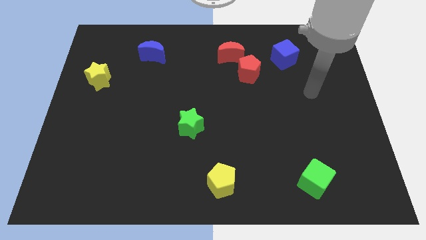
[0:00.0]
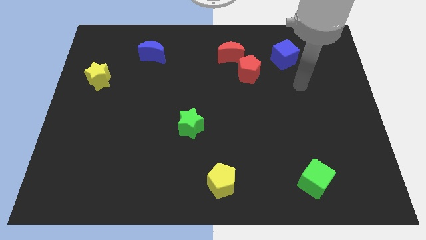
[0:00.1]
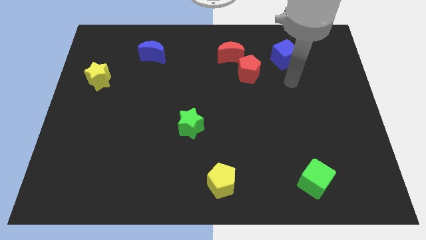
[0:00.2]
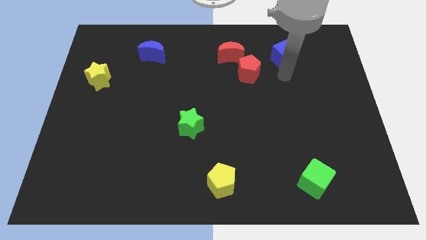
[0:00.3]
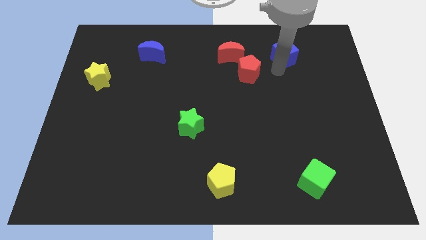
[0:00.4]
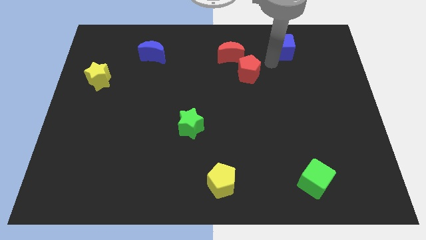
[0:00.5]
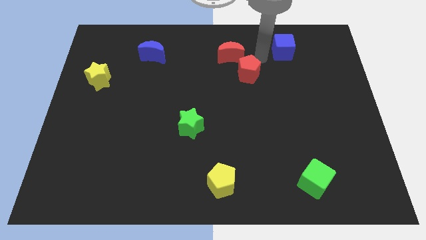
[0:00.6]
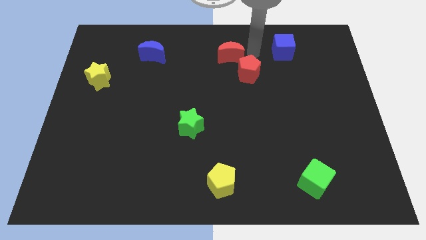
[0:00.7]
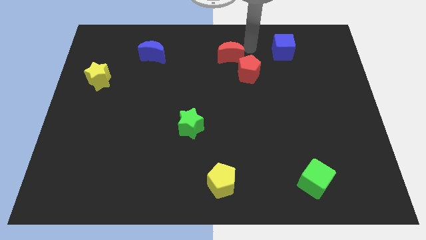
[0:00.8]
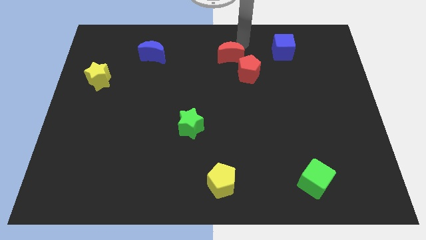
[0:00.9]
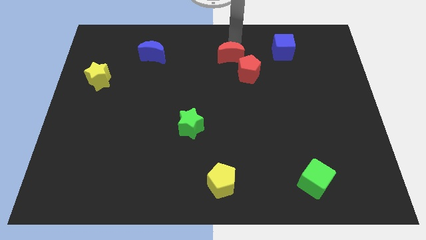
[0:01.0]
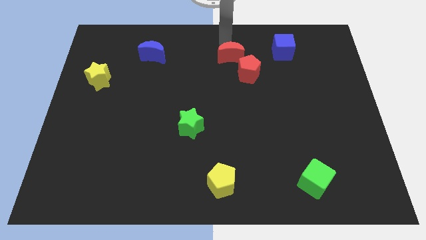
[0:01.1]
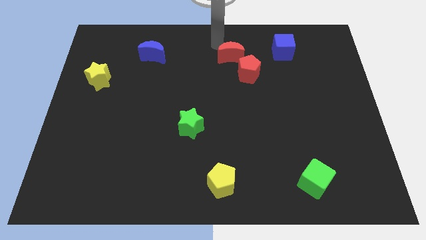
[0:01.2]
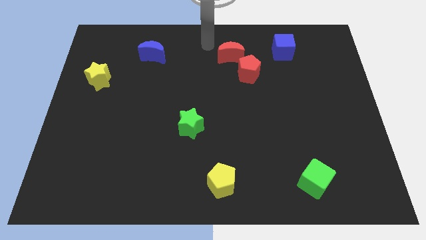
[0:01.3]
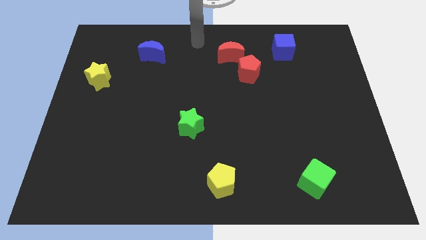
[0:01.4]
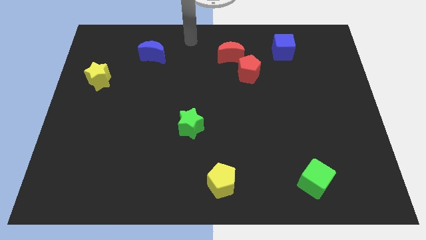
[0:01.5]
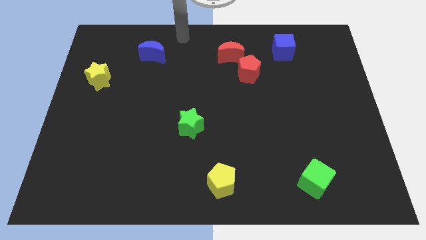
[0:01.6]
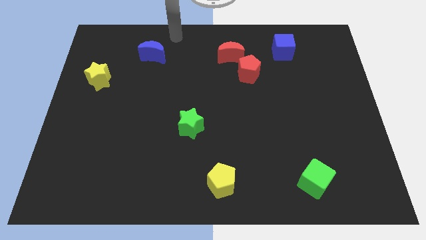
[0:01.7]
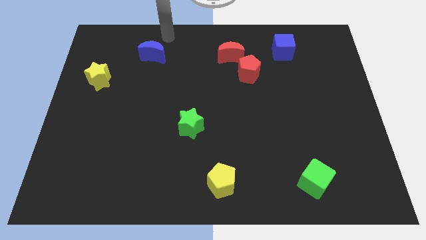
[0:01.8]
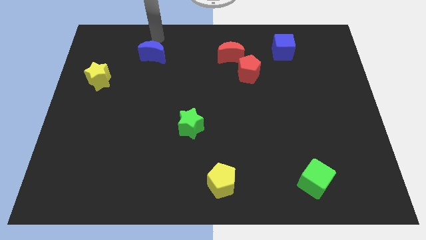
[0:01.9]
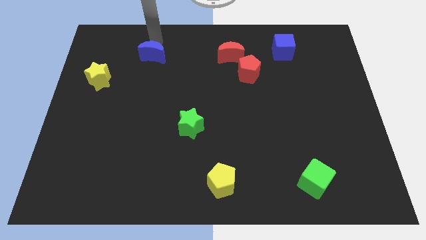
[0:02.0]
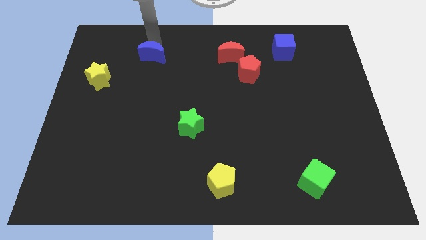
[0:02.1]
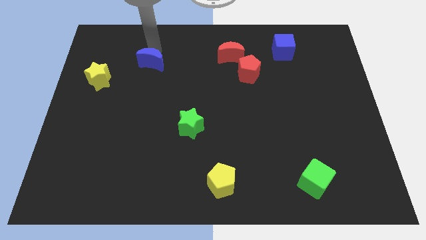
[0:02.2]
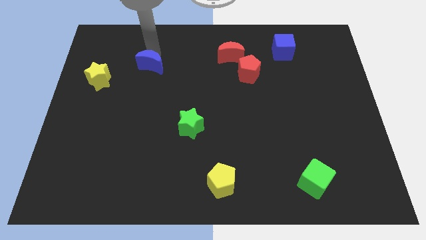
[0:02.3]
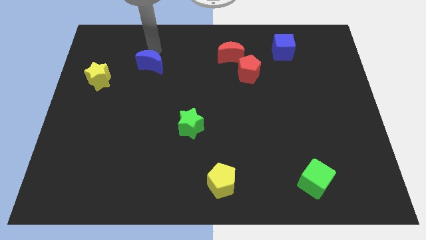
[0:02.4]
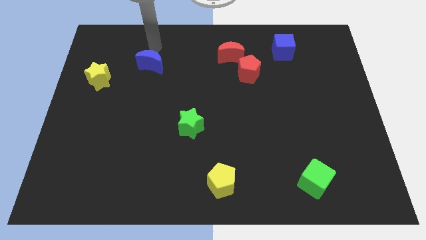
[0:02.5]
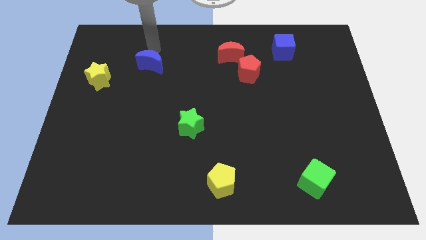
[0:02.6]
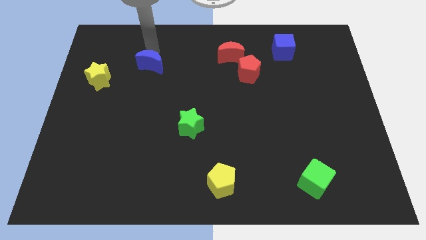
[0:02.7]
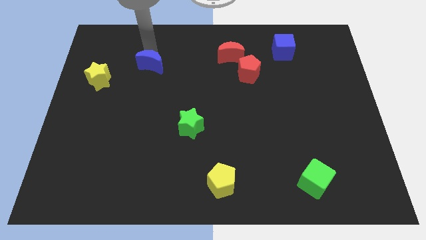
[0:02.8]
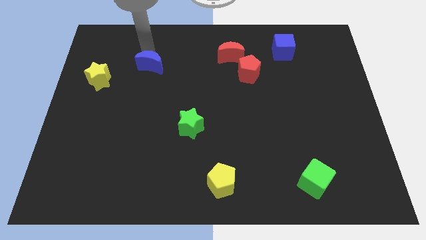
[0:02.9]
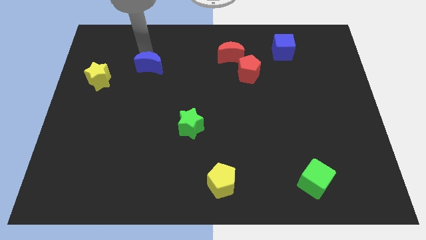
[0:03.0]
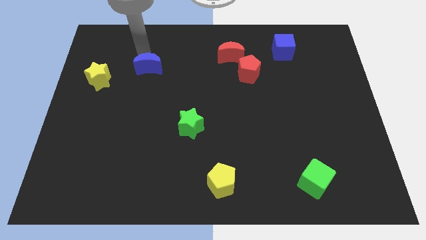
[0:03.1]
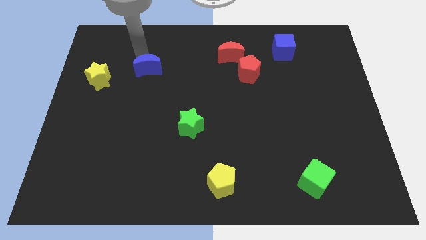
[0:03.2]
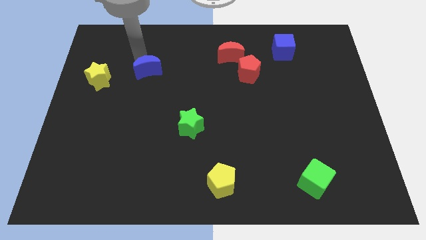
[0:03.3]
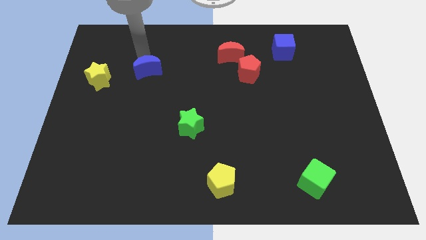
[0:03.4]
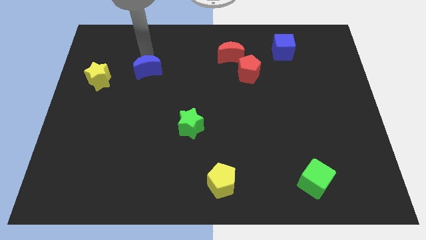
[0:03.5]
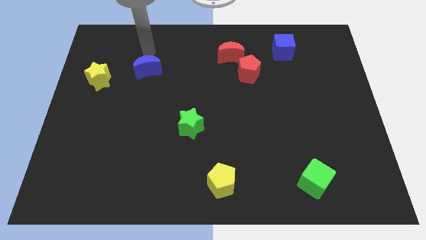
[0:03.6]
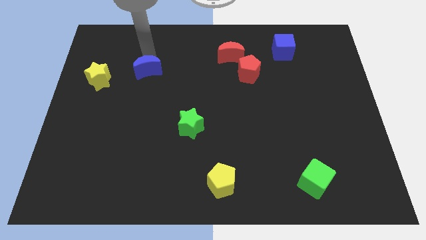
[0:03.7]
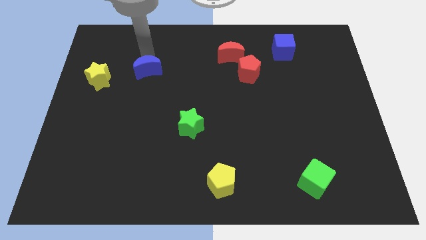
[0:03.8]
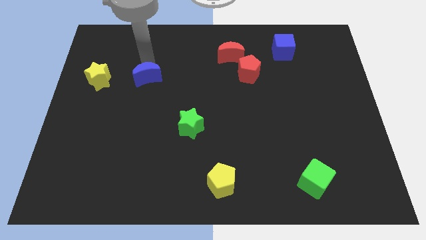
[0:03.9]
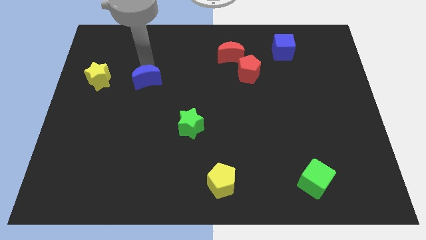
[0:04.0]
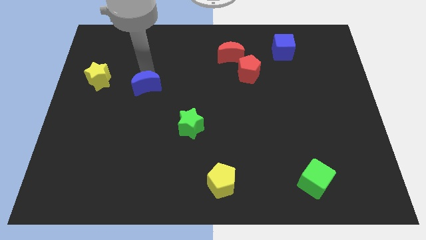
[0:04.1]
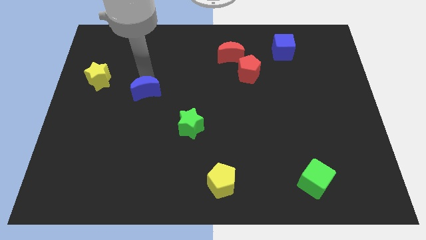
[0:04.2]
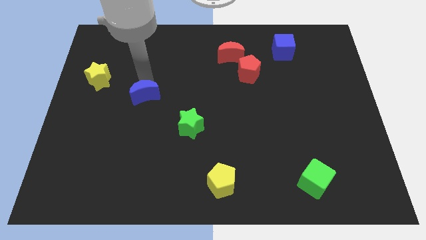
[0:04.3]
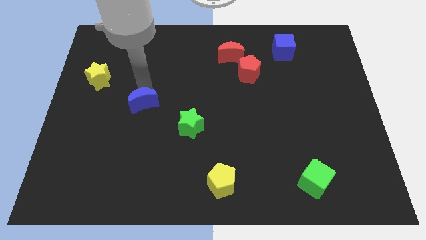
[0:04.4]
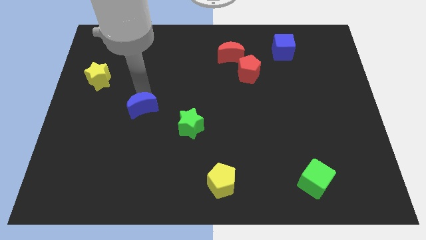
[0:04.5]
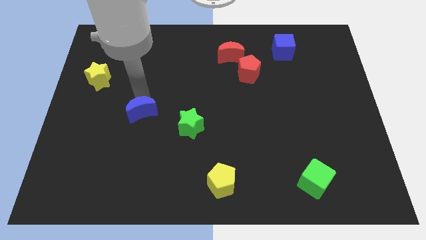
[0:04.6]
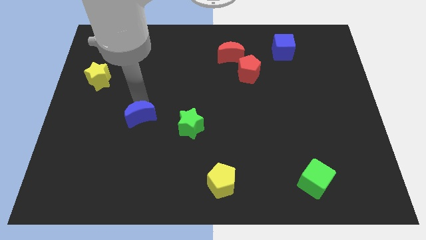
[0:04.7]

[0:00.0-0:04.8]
push the blue moon down

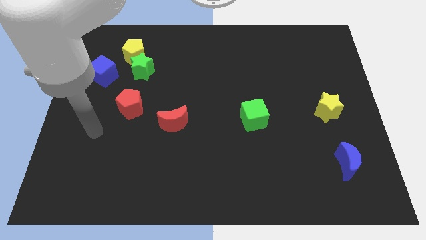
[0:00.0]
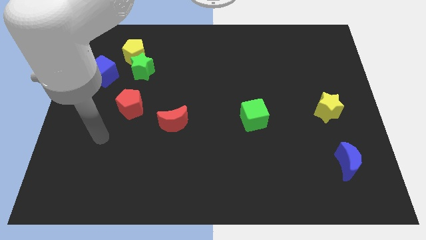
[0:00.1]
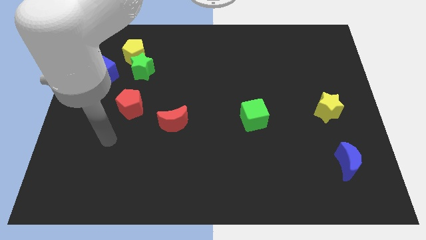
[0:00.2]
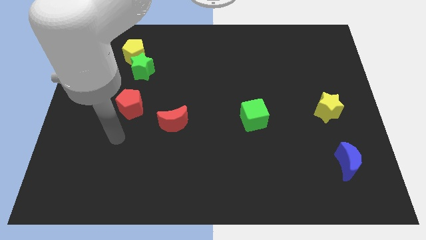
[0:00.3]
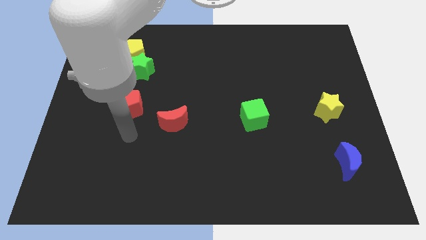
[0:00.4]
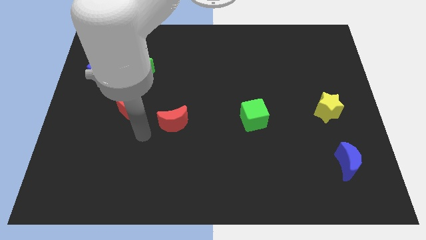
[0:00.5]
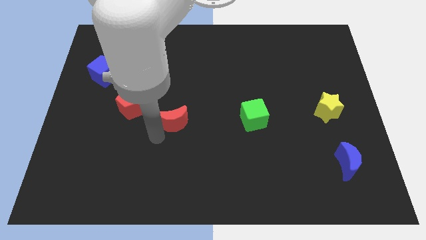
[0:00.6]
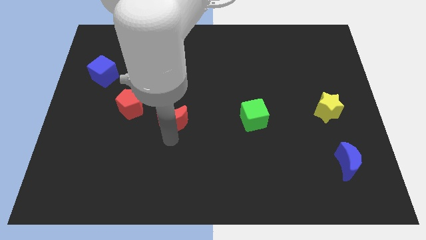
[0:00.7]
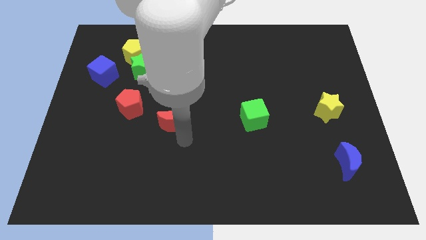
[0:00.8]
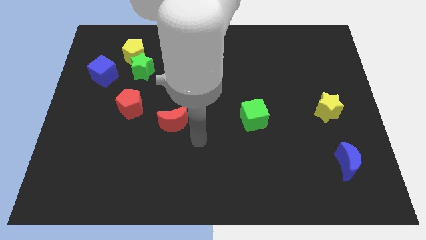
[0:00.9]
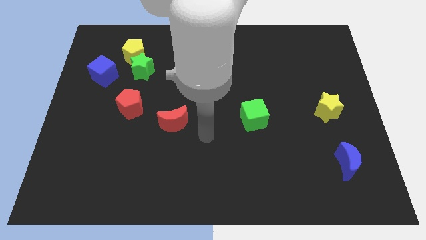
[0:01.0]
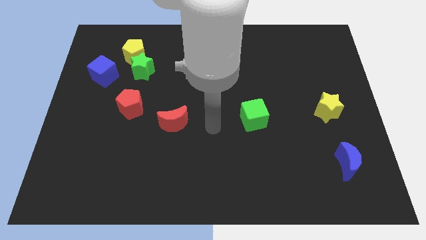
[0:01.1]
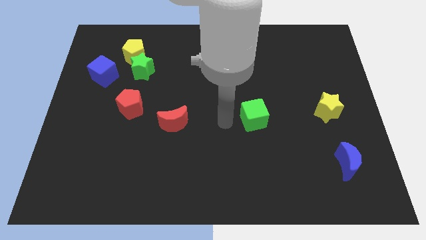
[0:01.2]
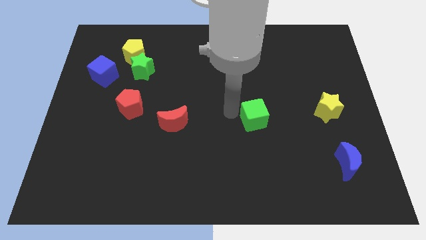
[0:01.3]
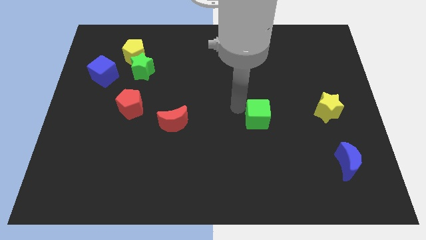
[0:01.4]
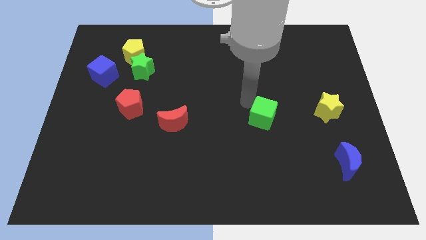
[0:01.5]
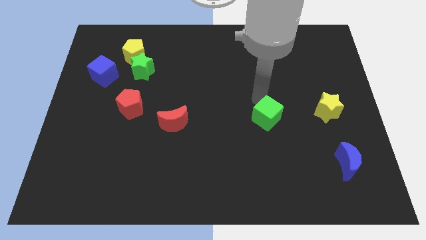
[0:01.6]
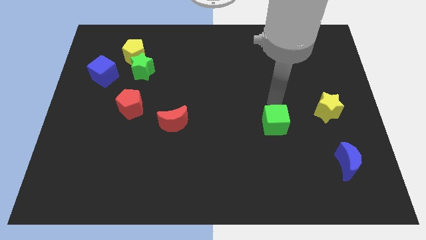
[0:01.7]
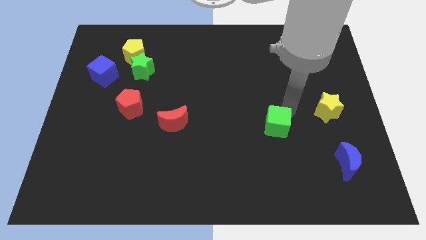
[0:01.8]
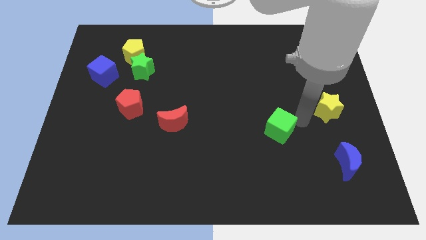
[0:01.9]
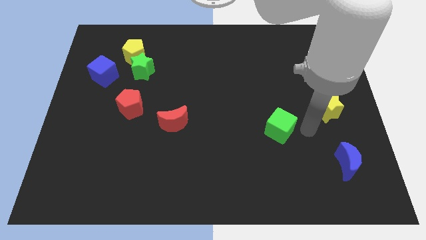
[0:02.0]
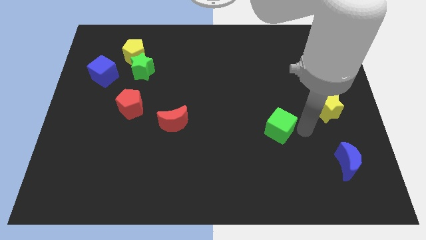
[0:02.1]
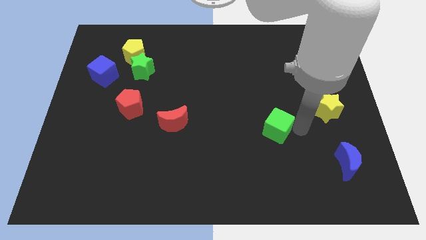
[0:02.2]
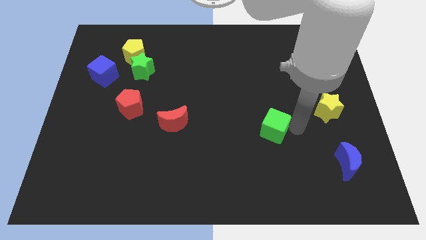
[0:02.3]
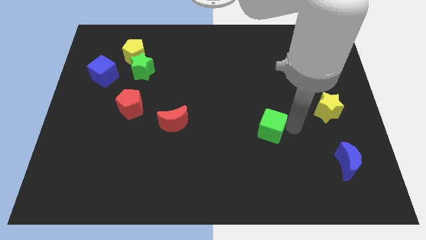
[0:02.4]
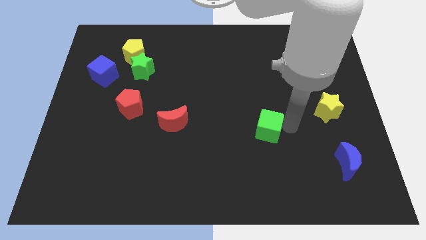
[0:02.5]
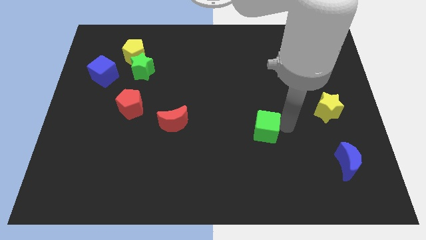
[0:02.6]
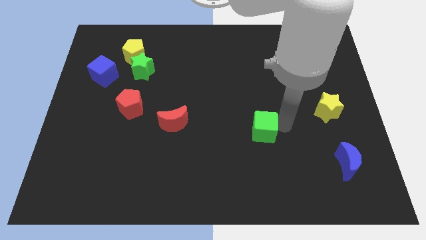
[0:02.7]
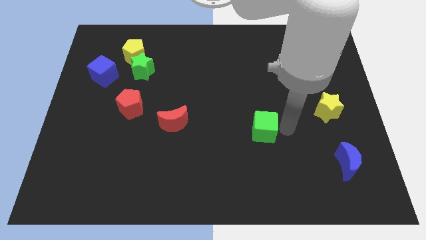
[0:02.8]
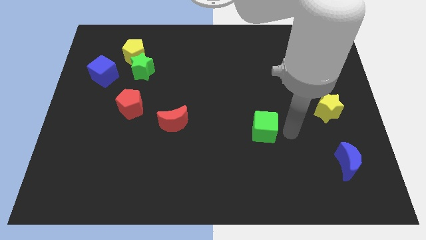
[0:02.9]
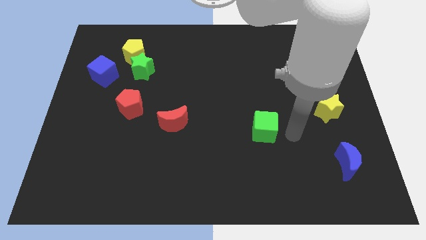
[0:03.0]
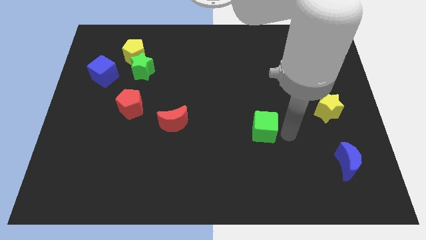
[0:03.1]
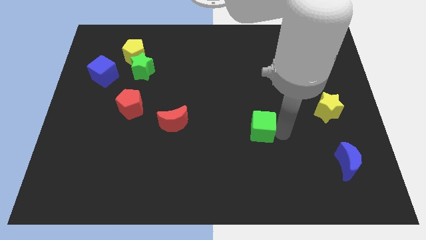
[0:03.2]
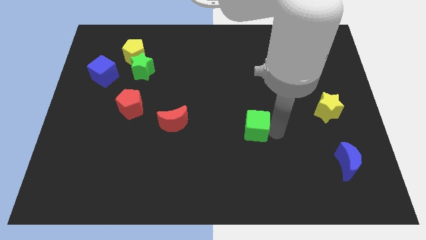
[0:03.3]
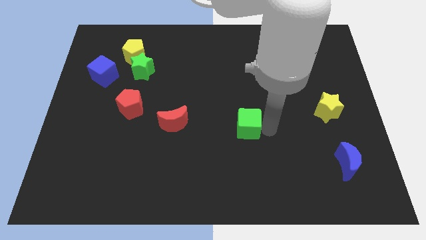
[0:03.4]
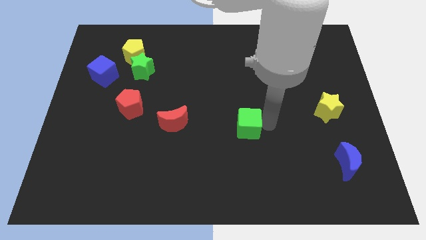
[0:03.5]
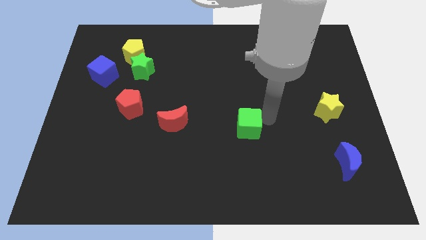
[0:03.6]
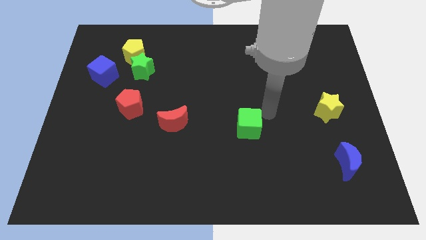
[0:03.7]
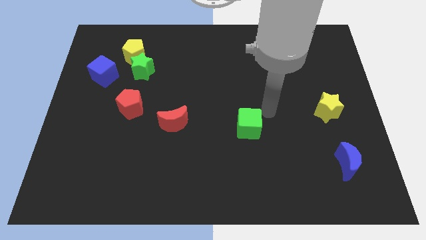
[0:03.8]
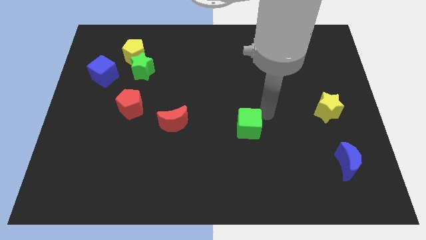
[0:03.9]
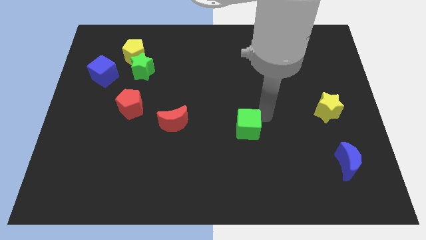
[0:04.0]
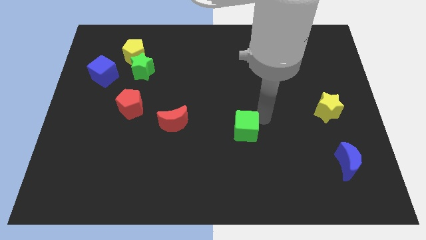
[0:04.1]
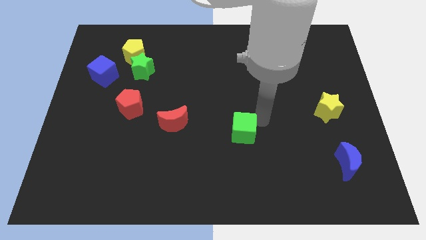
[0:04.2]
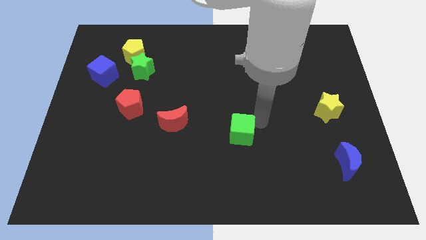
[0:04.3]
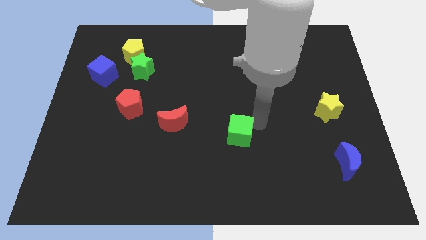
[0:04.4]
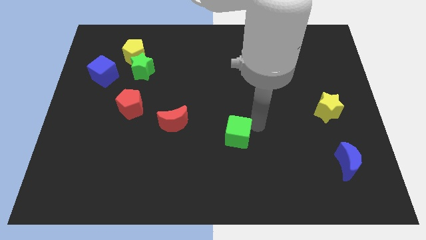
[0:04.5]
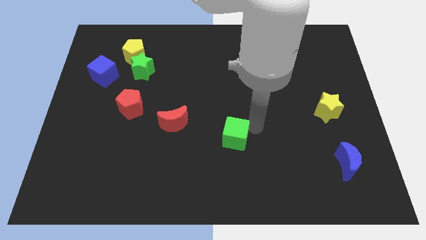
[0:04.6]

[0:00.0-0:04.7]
push the green cube a little downwards and then left
